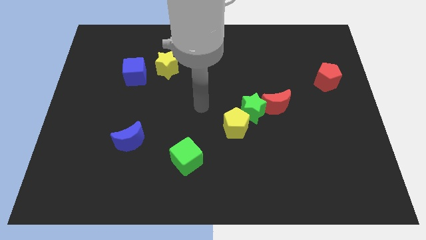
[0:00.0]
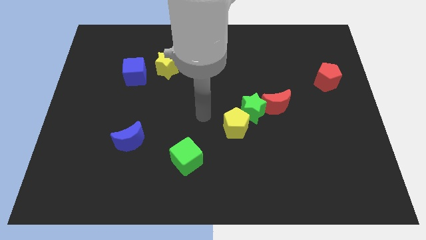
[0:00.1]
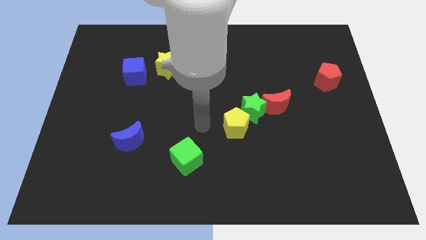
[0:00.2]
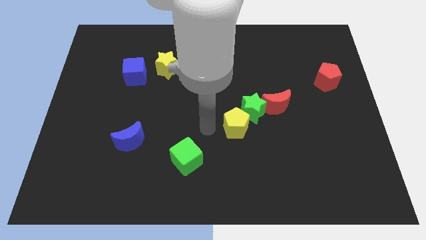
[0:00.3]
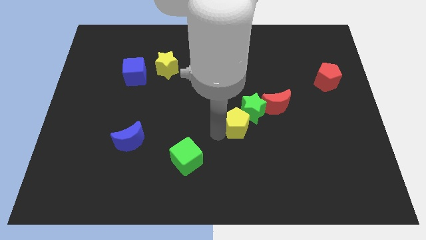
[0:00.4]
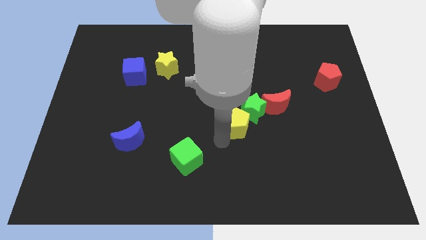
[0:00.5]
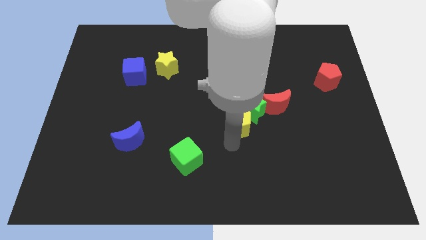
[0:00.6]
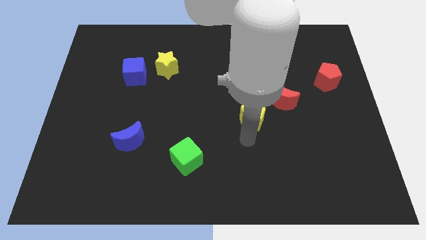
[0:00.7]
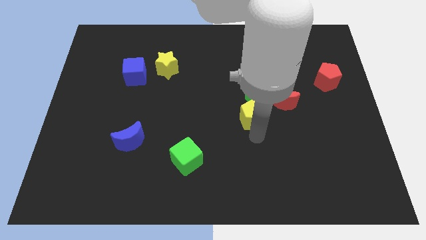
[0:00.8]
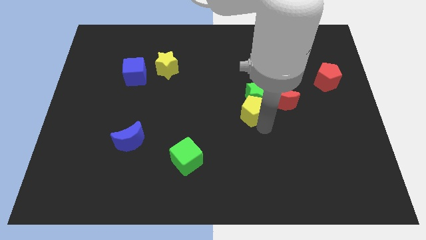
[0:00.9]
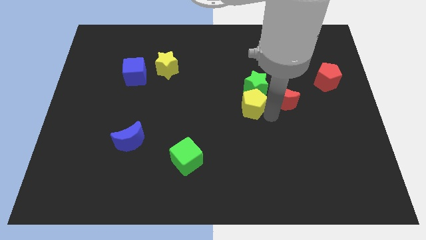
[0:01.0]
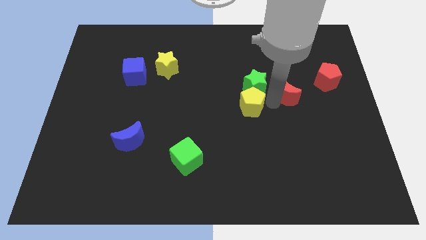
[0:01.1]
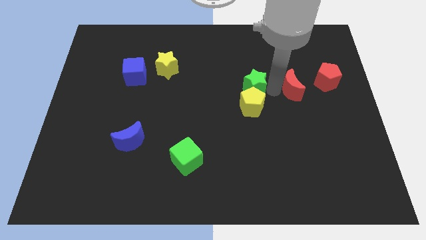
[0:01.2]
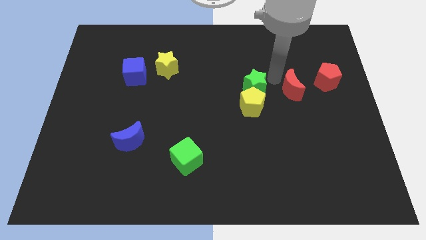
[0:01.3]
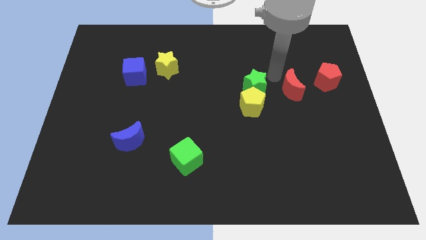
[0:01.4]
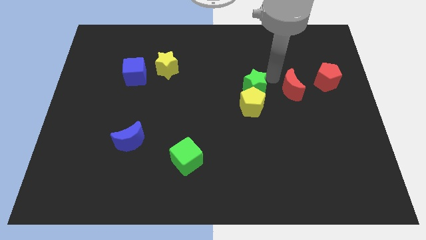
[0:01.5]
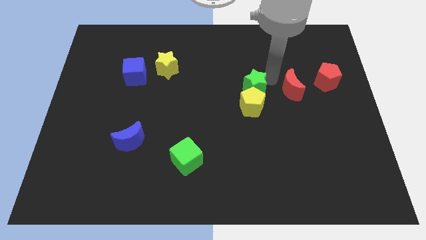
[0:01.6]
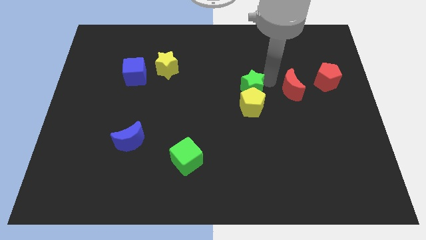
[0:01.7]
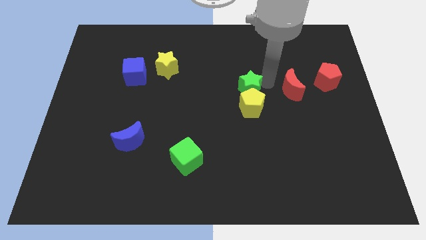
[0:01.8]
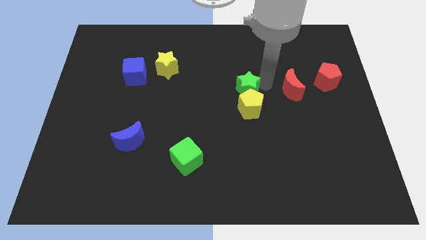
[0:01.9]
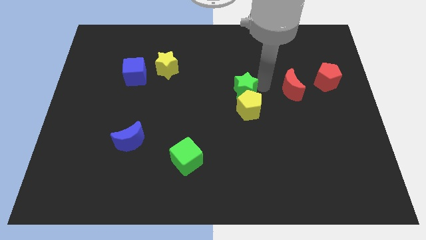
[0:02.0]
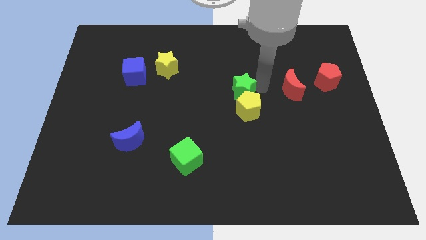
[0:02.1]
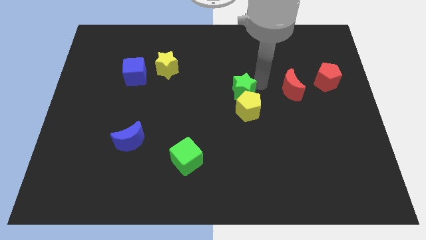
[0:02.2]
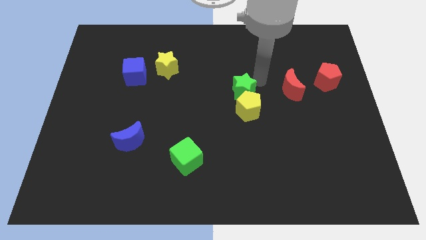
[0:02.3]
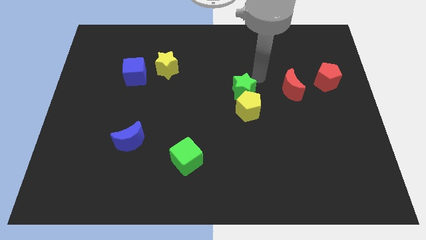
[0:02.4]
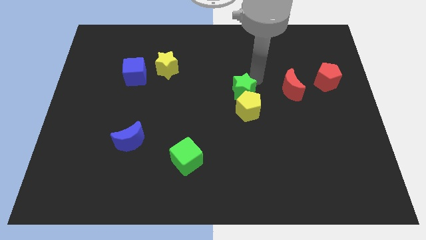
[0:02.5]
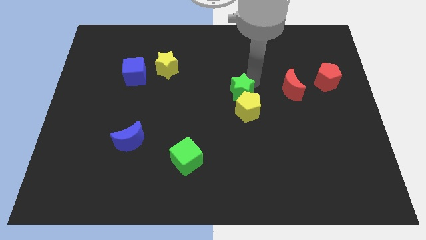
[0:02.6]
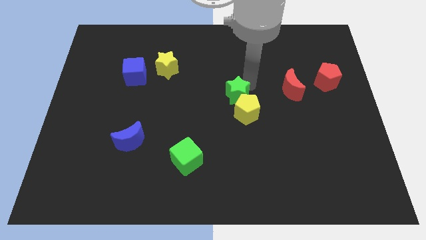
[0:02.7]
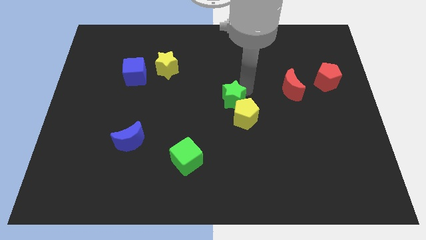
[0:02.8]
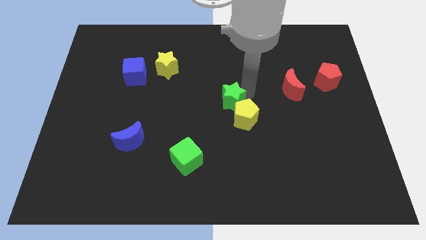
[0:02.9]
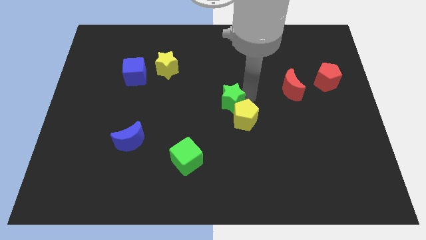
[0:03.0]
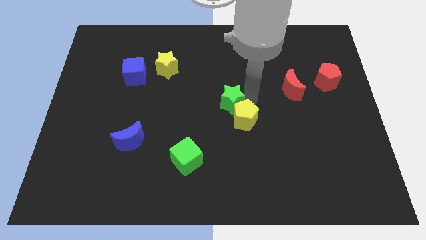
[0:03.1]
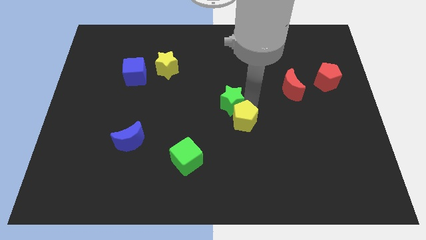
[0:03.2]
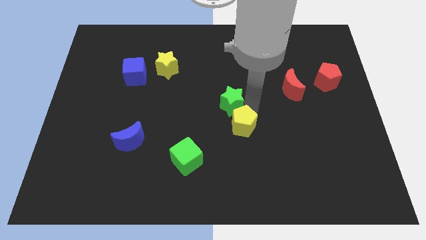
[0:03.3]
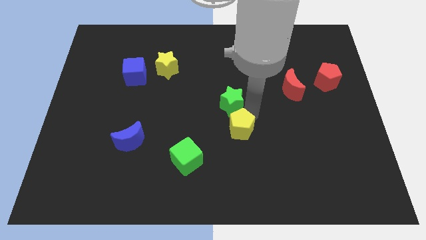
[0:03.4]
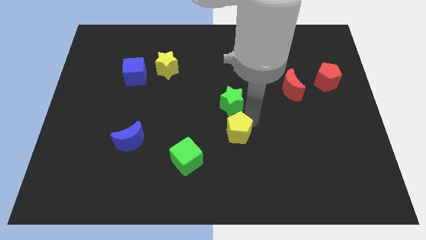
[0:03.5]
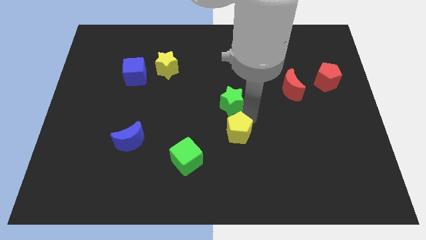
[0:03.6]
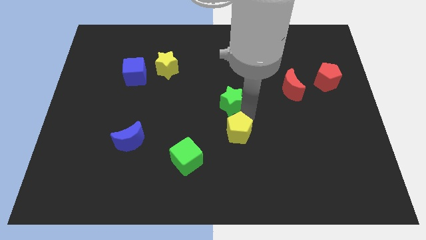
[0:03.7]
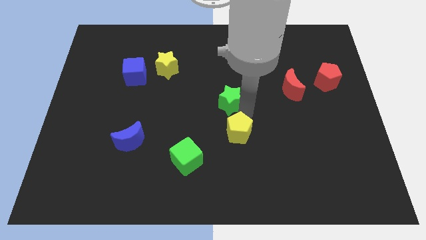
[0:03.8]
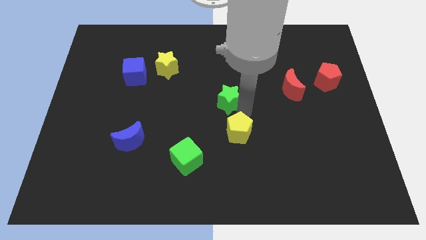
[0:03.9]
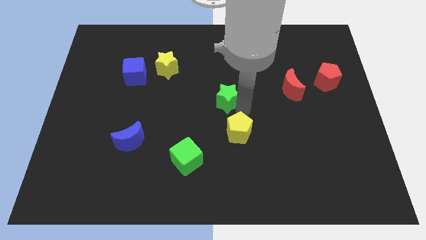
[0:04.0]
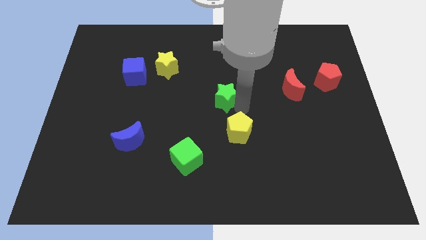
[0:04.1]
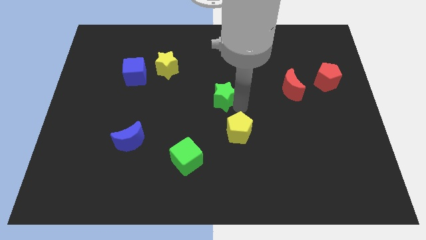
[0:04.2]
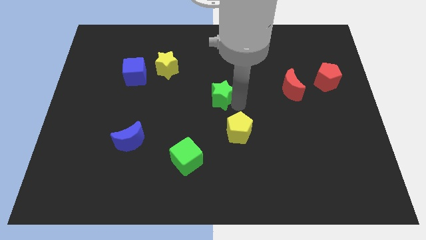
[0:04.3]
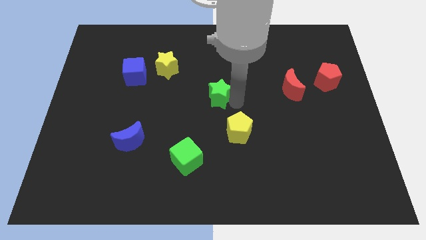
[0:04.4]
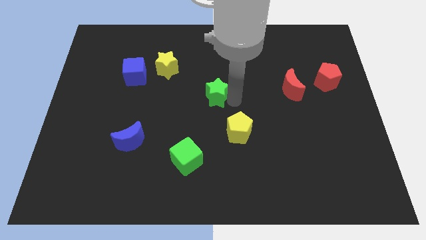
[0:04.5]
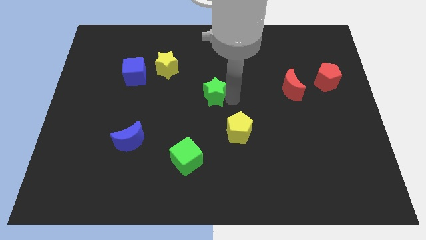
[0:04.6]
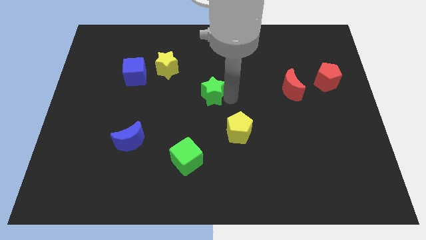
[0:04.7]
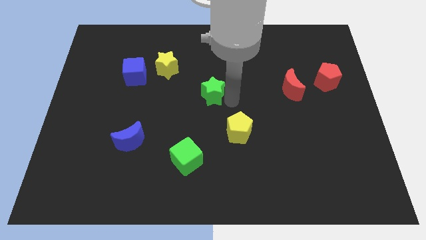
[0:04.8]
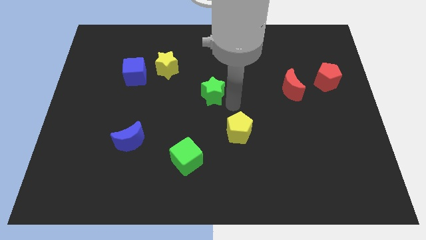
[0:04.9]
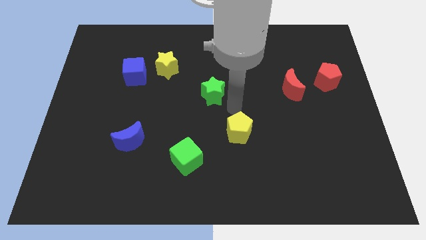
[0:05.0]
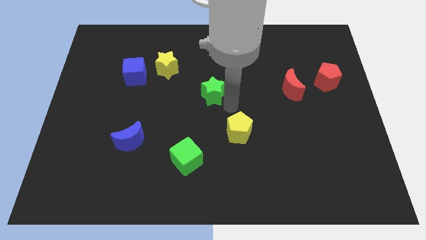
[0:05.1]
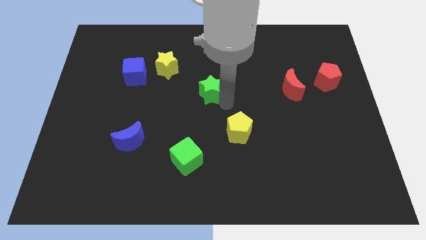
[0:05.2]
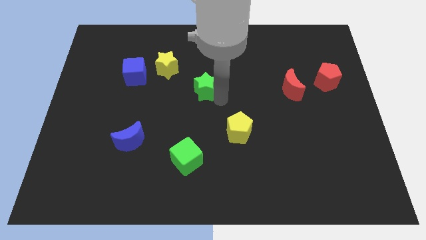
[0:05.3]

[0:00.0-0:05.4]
slide the green star to the bottom right side of the yellow star
